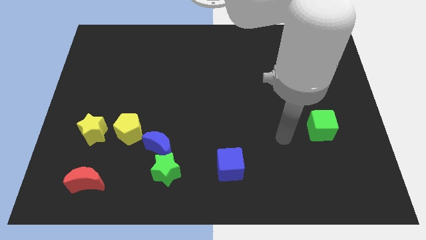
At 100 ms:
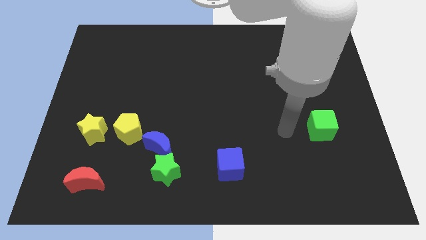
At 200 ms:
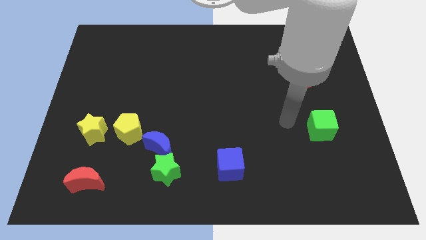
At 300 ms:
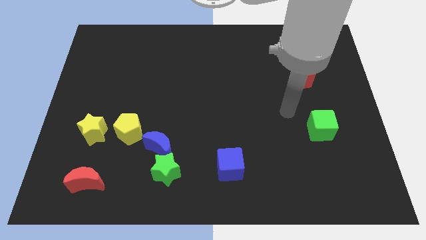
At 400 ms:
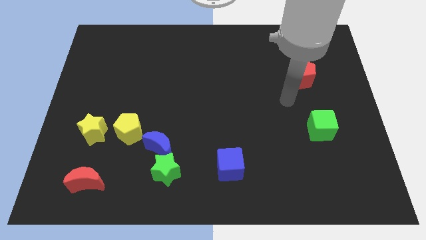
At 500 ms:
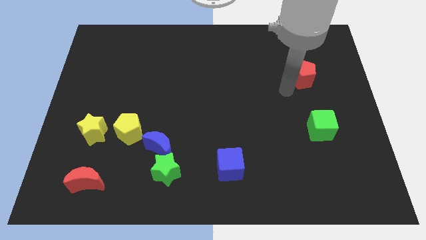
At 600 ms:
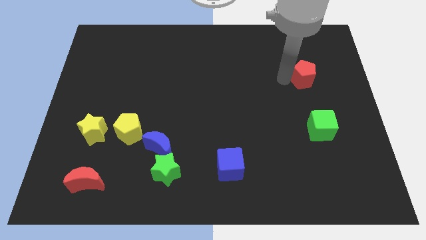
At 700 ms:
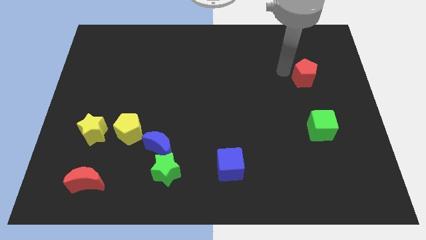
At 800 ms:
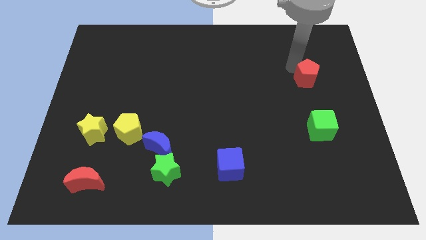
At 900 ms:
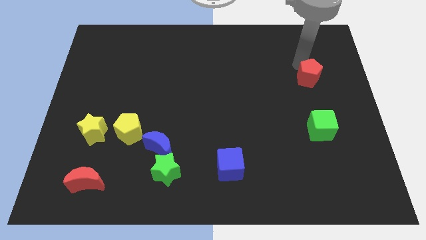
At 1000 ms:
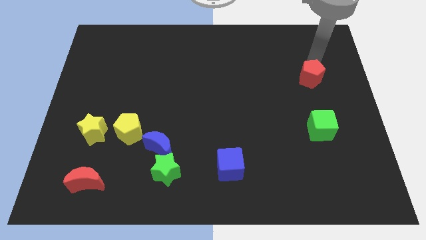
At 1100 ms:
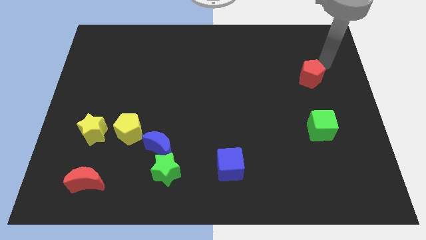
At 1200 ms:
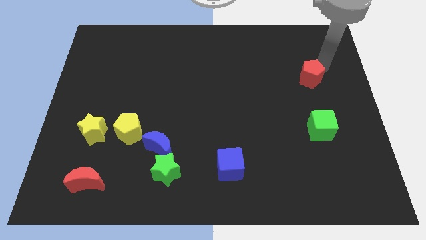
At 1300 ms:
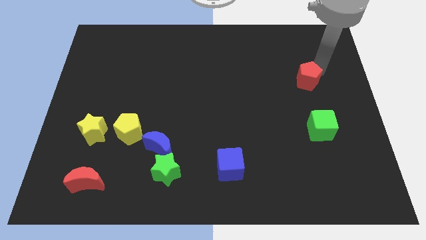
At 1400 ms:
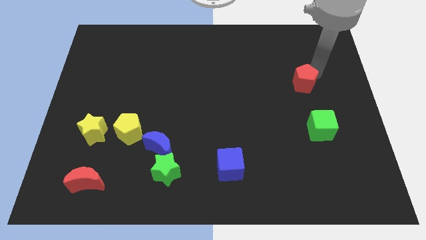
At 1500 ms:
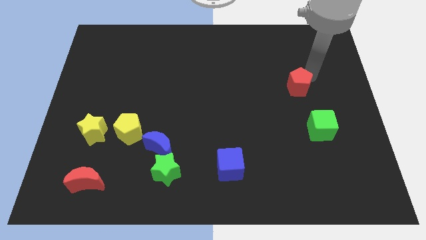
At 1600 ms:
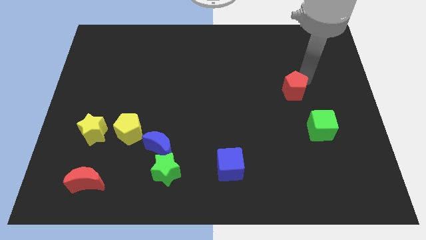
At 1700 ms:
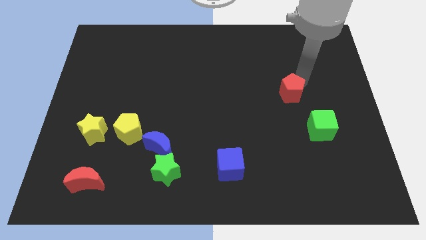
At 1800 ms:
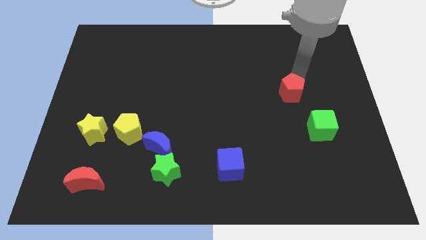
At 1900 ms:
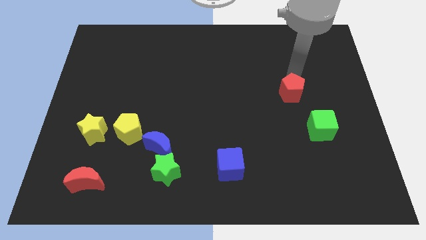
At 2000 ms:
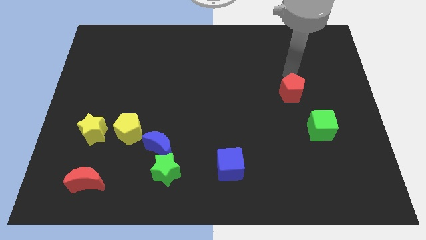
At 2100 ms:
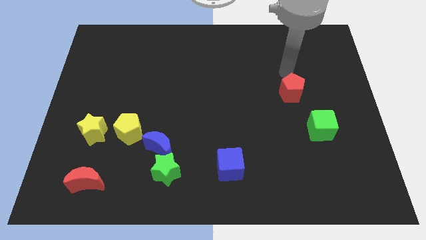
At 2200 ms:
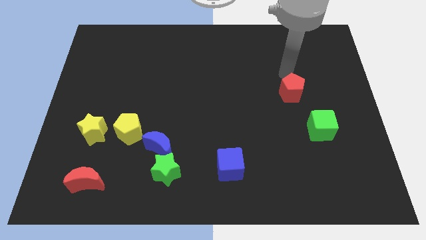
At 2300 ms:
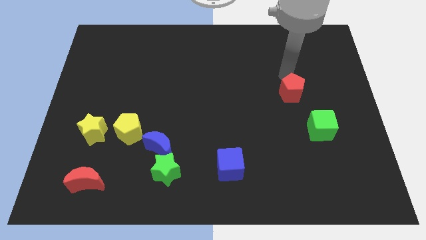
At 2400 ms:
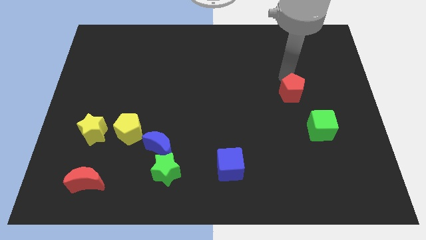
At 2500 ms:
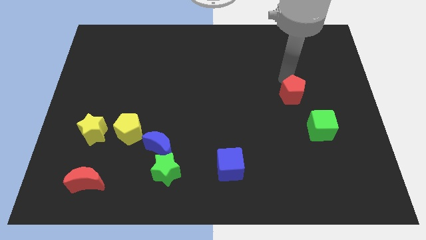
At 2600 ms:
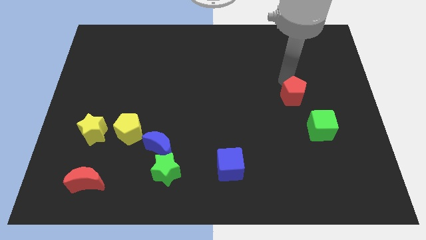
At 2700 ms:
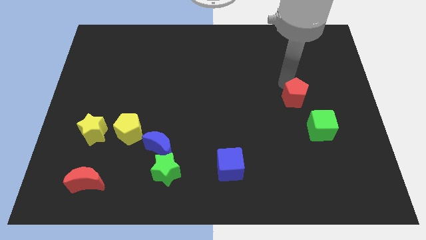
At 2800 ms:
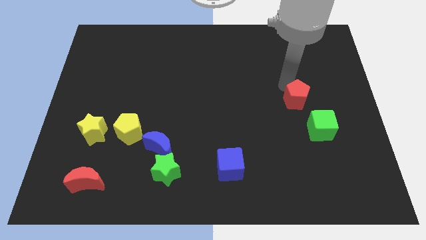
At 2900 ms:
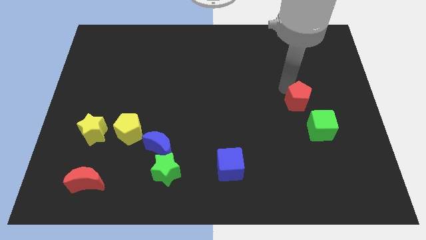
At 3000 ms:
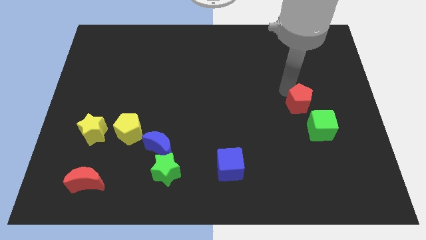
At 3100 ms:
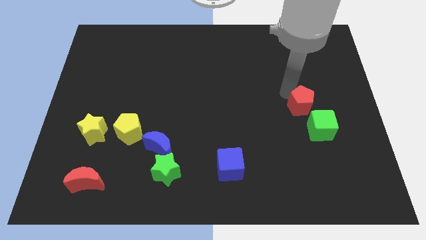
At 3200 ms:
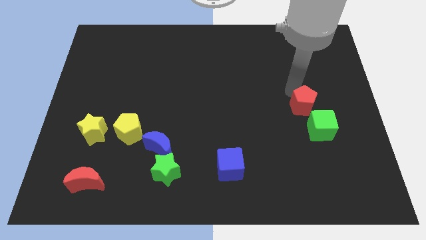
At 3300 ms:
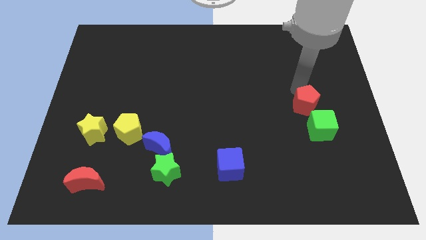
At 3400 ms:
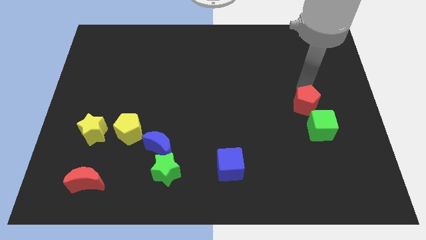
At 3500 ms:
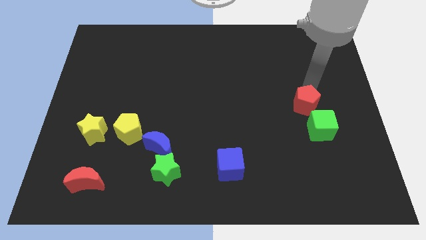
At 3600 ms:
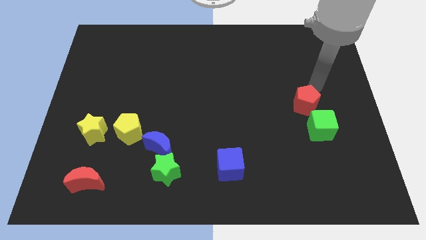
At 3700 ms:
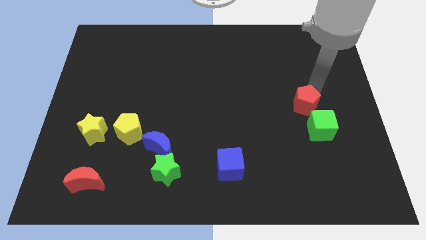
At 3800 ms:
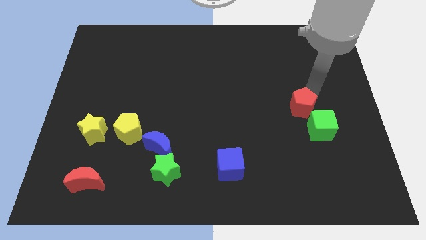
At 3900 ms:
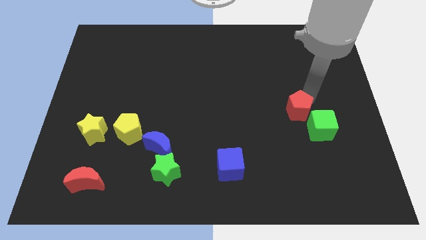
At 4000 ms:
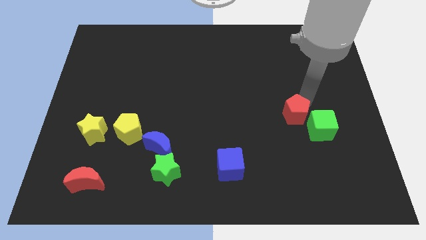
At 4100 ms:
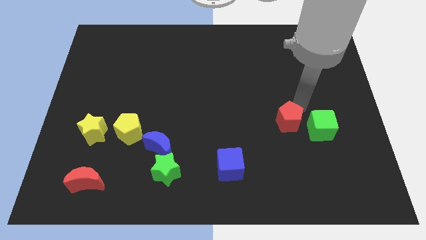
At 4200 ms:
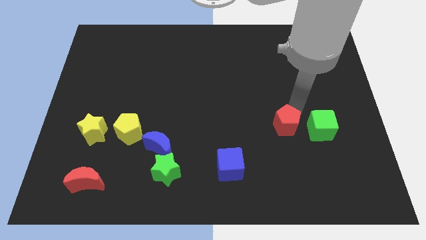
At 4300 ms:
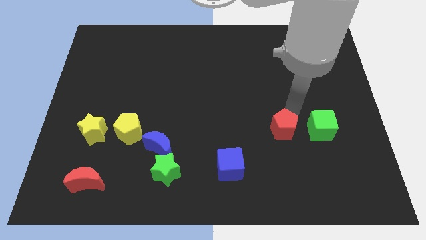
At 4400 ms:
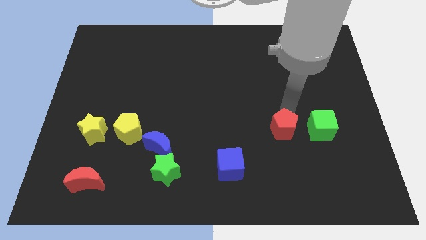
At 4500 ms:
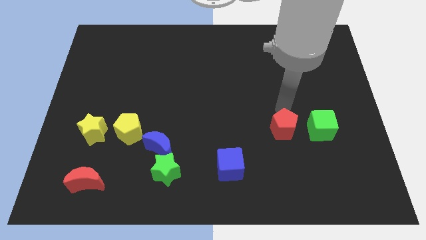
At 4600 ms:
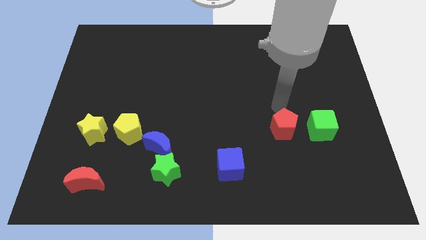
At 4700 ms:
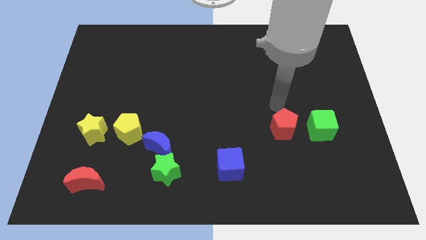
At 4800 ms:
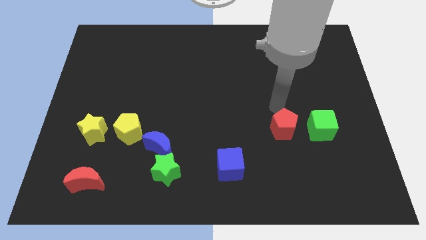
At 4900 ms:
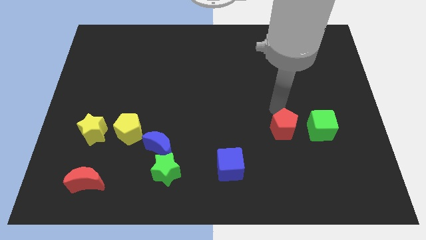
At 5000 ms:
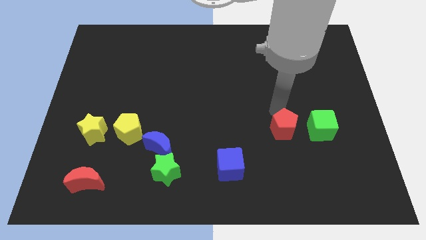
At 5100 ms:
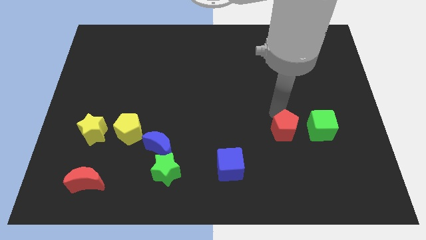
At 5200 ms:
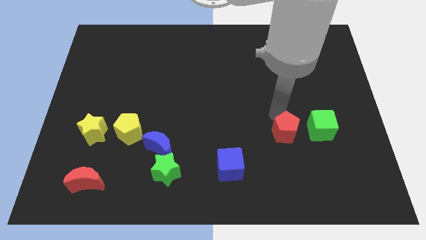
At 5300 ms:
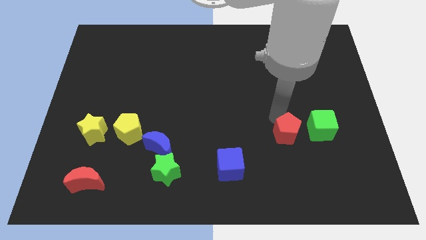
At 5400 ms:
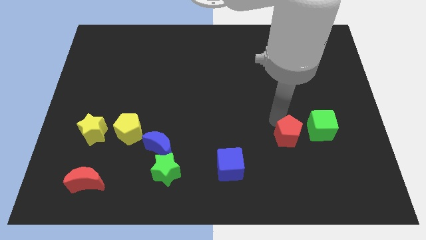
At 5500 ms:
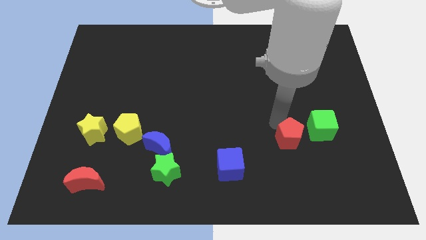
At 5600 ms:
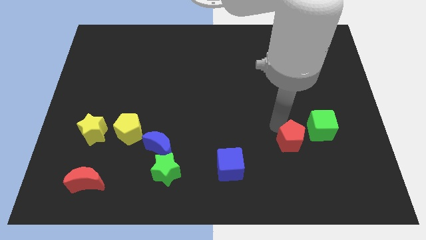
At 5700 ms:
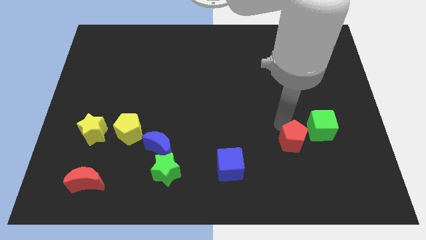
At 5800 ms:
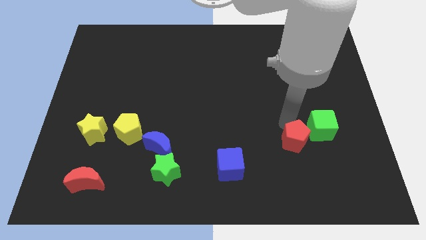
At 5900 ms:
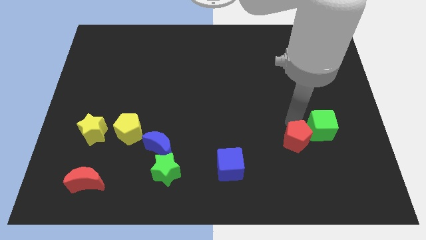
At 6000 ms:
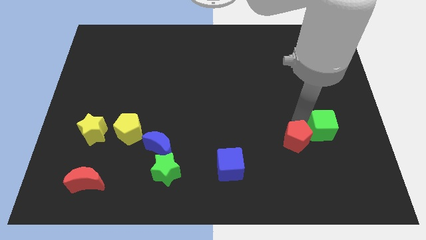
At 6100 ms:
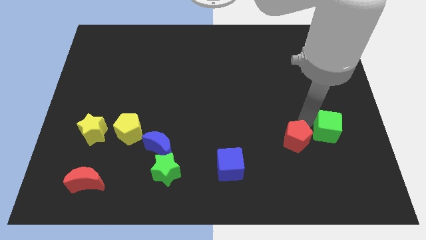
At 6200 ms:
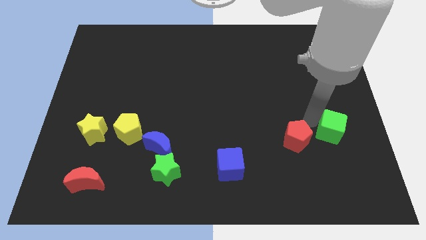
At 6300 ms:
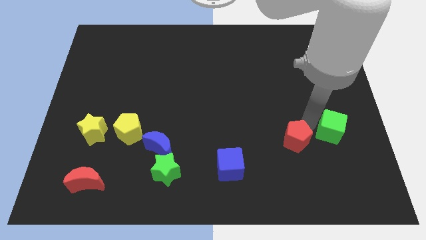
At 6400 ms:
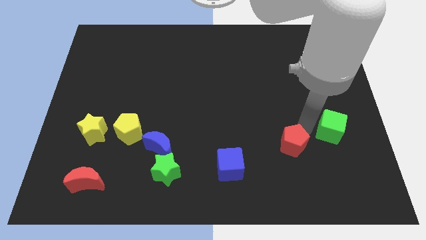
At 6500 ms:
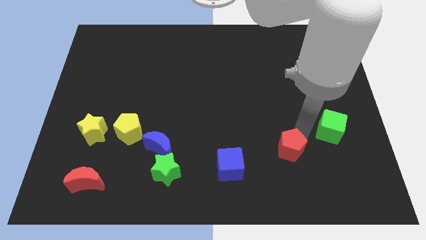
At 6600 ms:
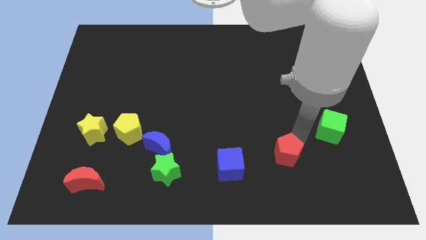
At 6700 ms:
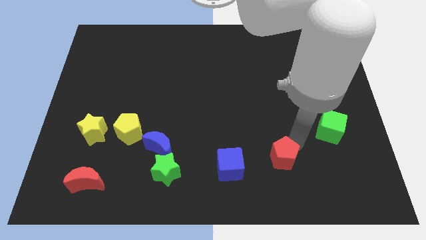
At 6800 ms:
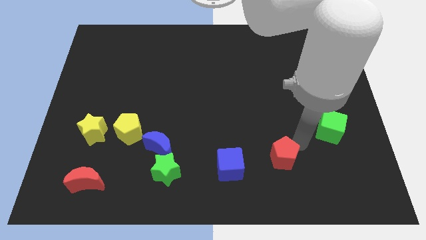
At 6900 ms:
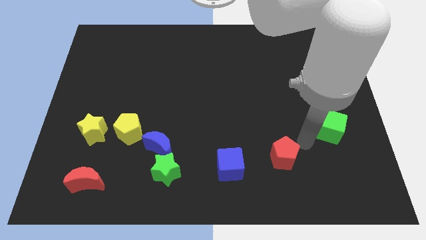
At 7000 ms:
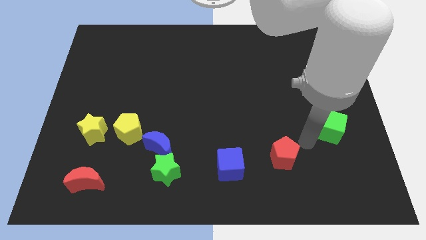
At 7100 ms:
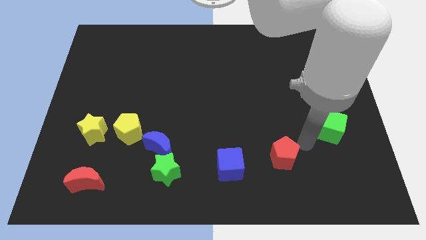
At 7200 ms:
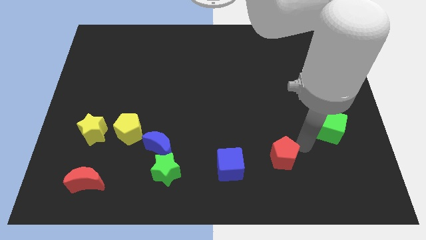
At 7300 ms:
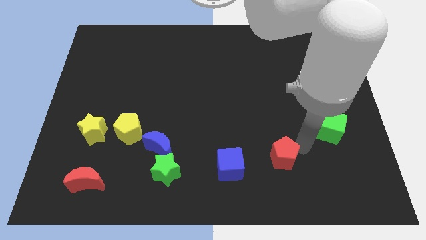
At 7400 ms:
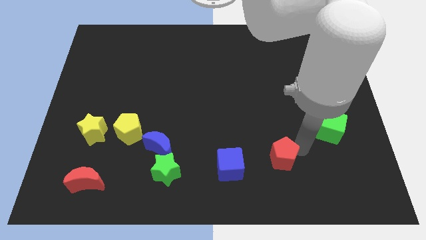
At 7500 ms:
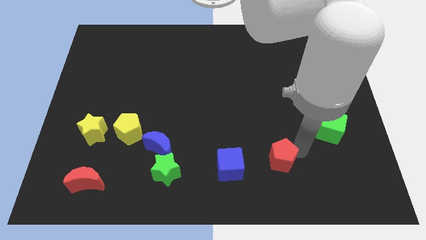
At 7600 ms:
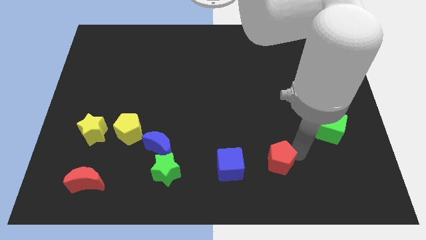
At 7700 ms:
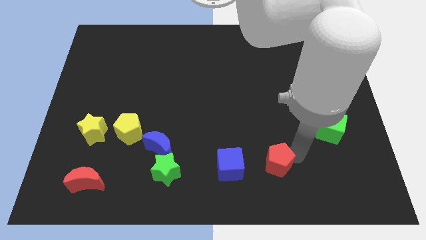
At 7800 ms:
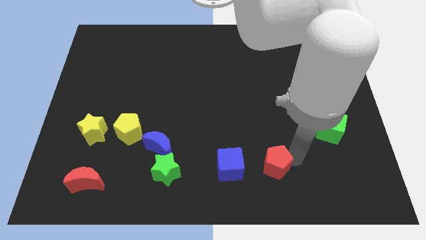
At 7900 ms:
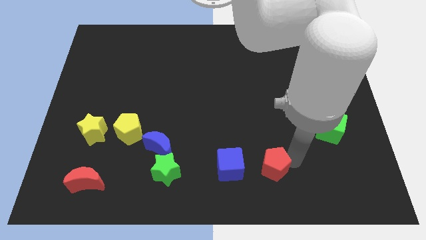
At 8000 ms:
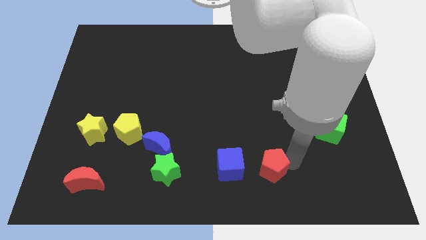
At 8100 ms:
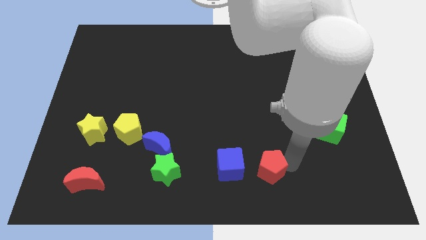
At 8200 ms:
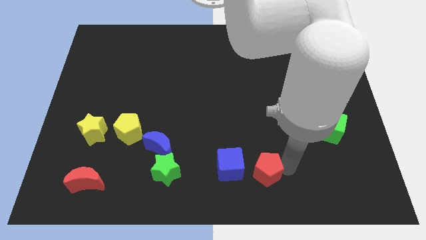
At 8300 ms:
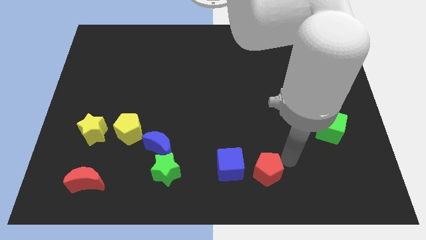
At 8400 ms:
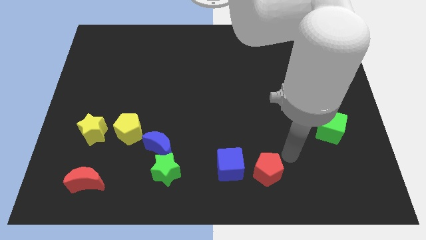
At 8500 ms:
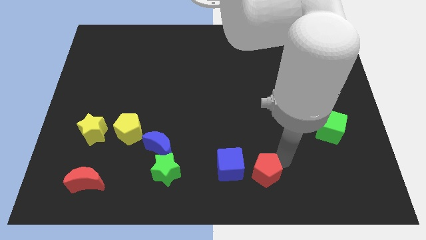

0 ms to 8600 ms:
push the red pentagon to the bottom
